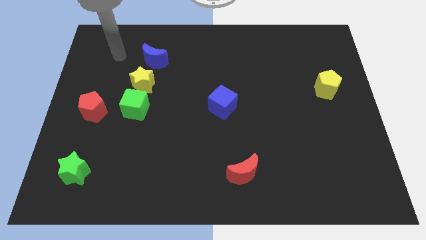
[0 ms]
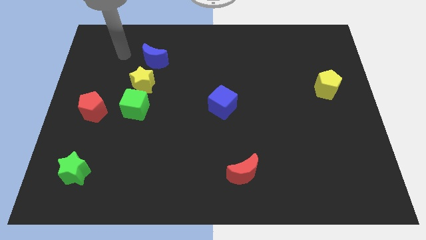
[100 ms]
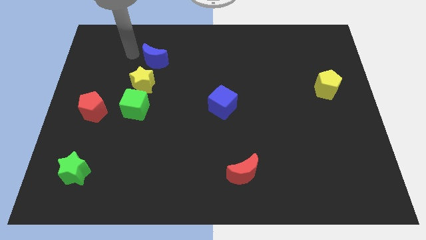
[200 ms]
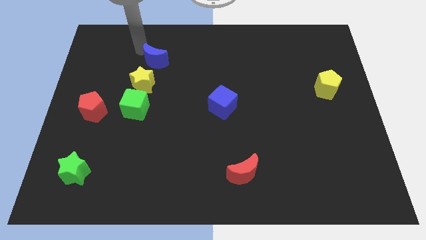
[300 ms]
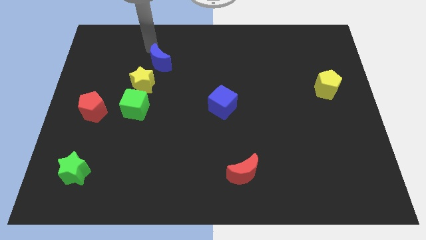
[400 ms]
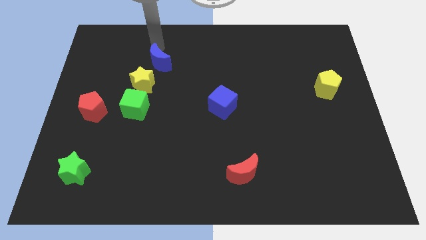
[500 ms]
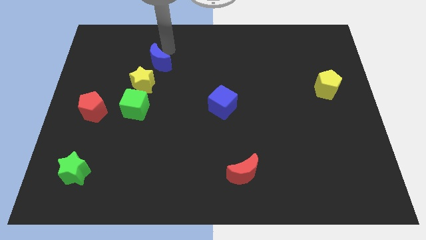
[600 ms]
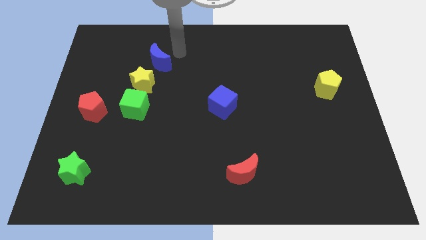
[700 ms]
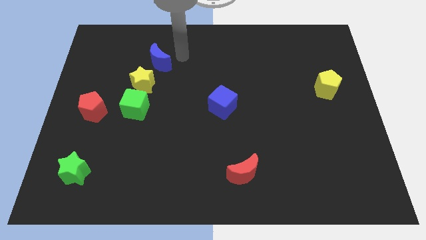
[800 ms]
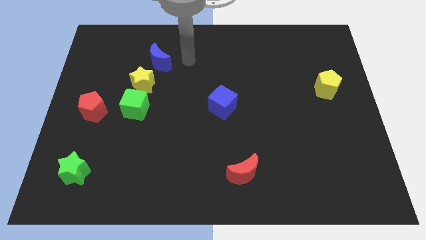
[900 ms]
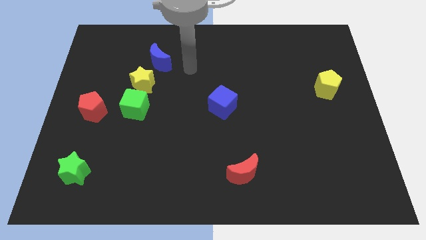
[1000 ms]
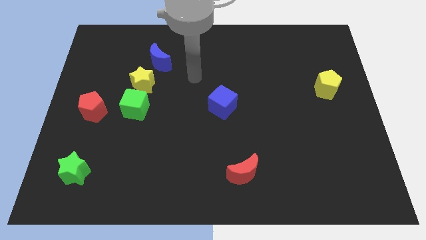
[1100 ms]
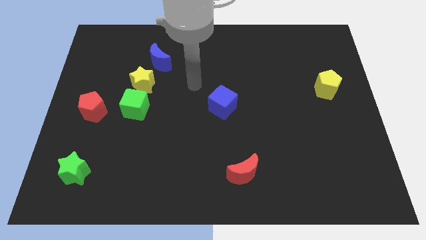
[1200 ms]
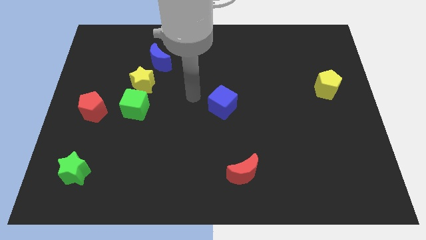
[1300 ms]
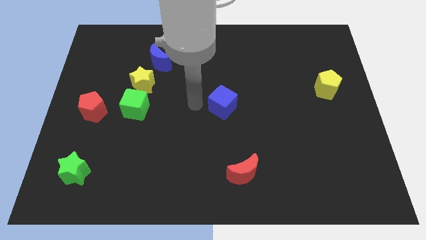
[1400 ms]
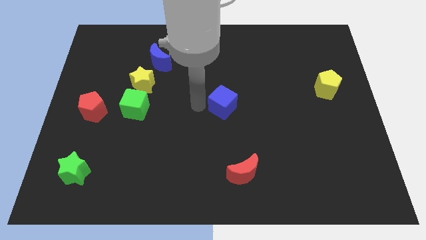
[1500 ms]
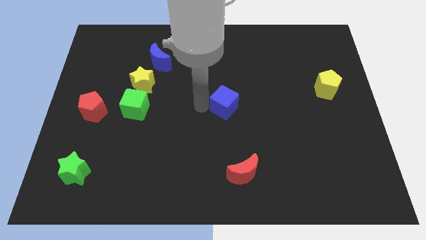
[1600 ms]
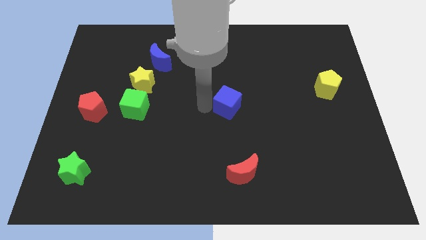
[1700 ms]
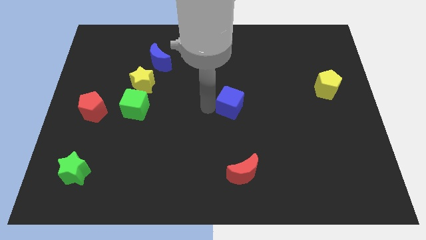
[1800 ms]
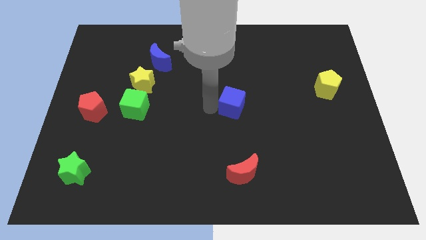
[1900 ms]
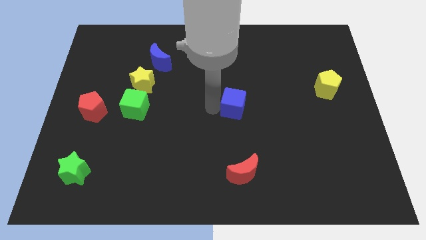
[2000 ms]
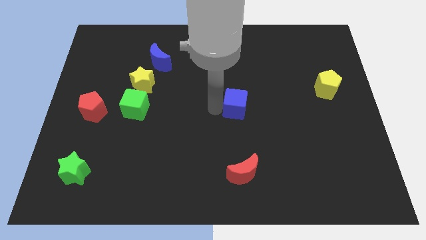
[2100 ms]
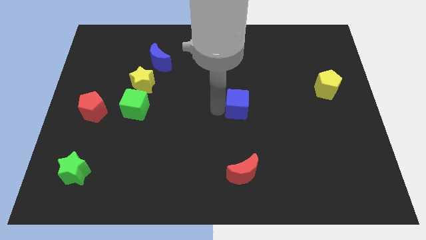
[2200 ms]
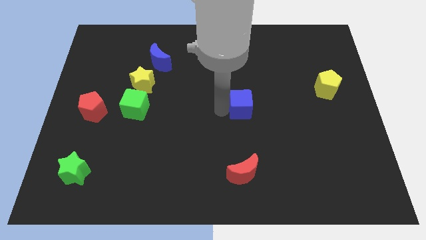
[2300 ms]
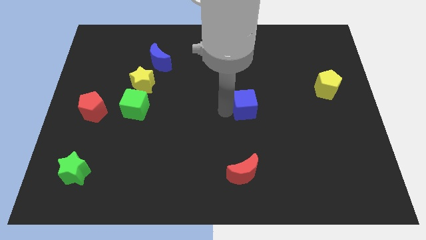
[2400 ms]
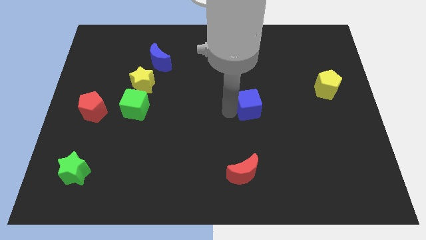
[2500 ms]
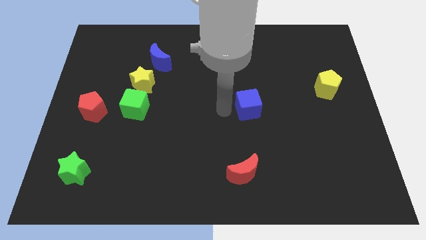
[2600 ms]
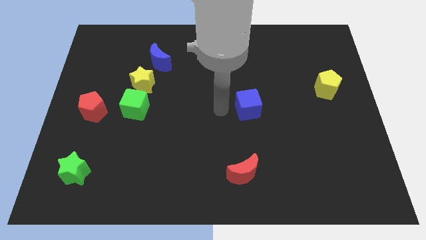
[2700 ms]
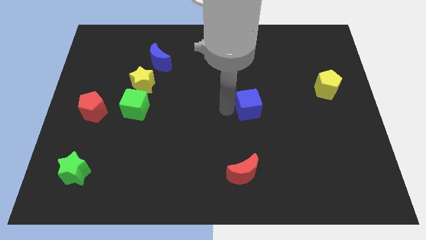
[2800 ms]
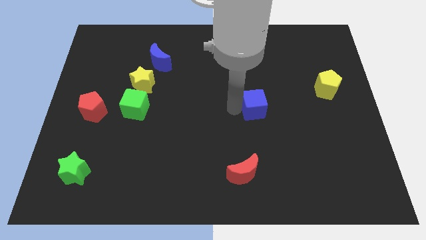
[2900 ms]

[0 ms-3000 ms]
push the blue cube right a little bit

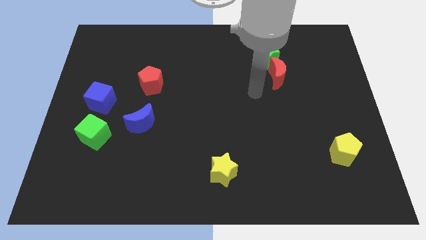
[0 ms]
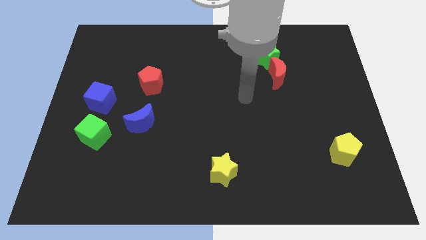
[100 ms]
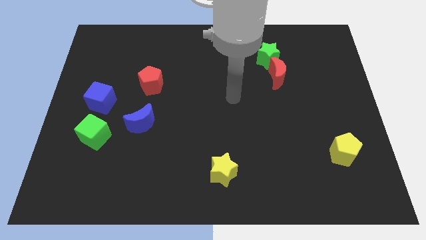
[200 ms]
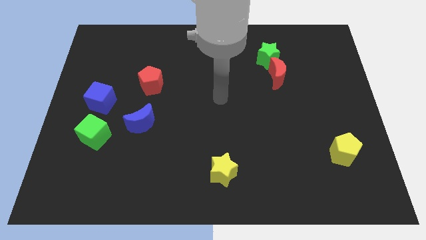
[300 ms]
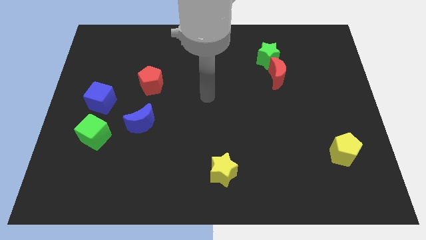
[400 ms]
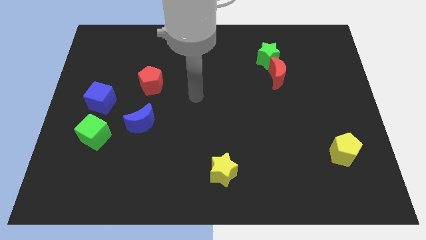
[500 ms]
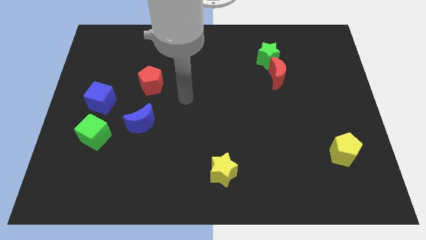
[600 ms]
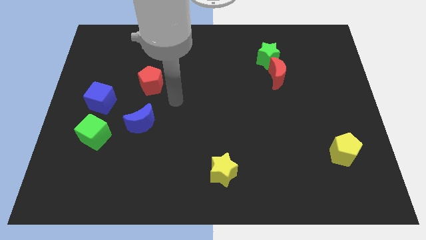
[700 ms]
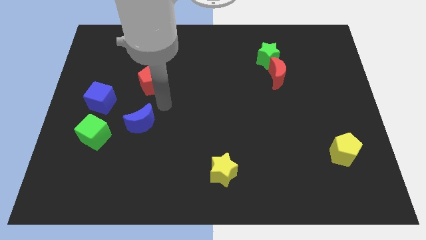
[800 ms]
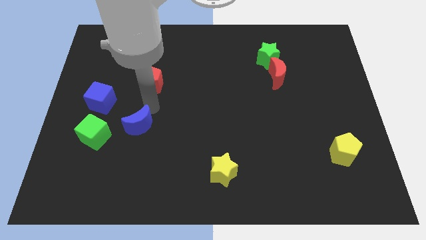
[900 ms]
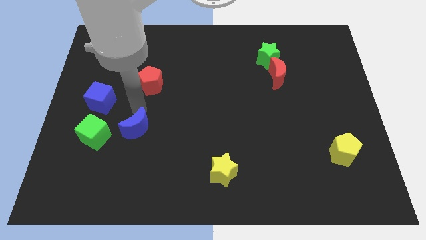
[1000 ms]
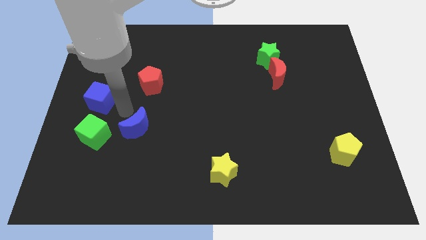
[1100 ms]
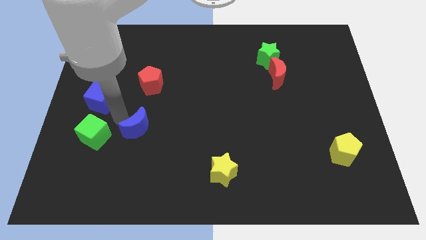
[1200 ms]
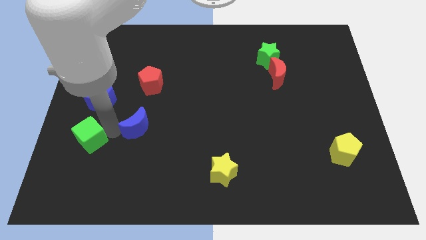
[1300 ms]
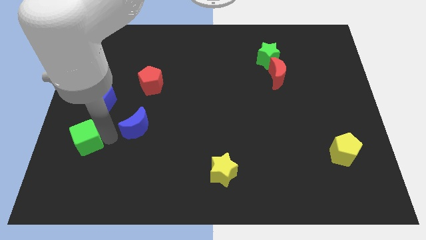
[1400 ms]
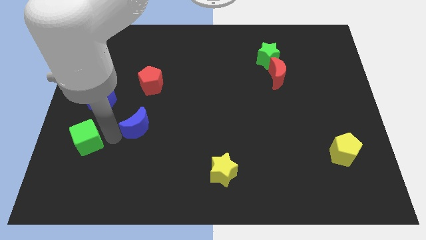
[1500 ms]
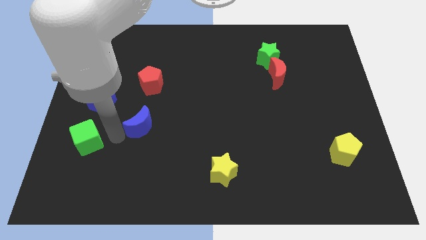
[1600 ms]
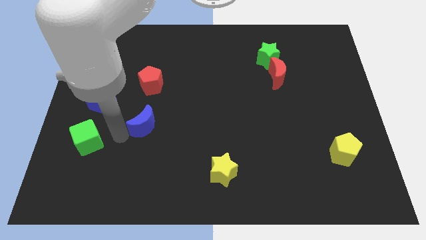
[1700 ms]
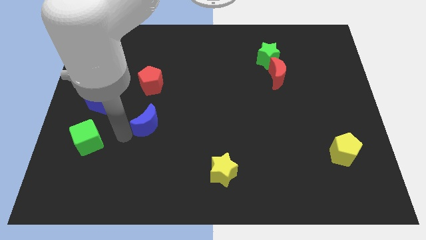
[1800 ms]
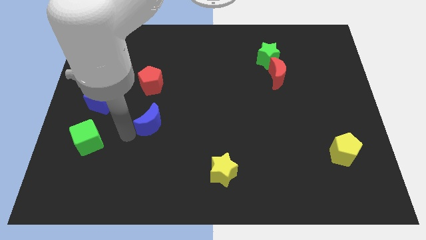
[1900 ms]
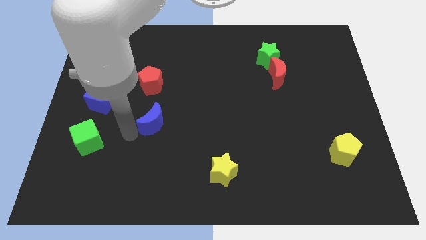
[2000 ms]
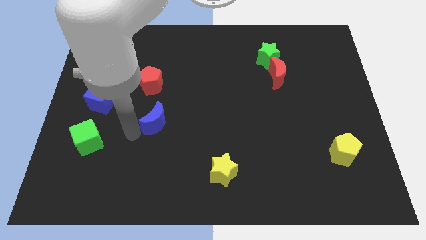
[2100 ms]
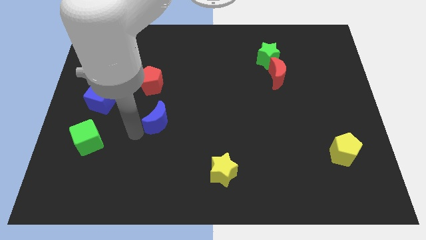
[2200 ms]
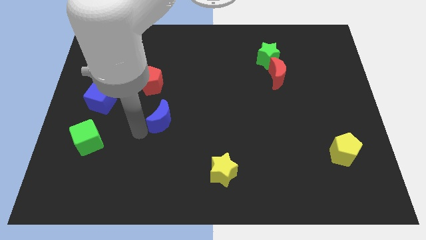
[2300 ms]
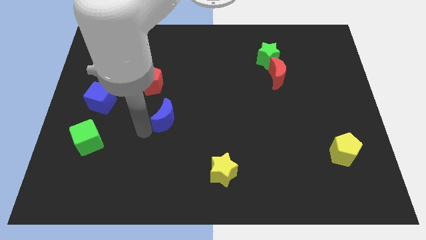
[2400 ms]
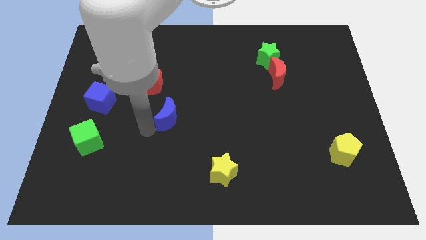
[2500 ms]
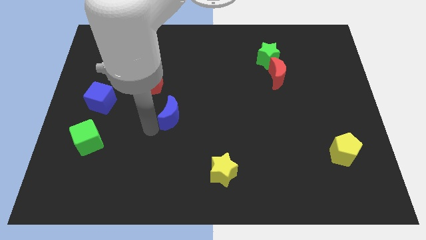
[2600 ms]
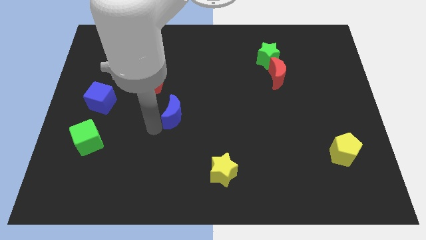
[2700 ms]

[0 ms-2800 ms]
slide the blue moon right a little bit

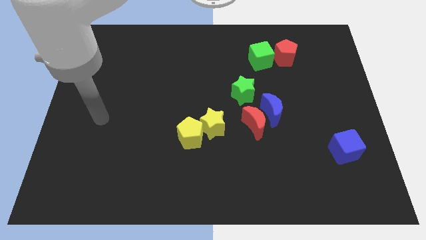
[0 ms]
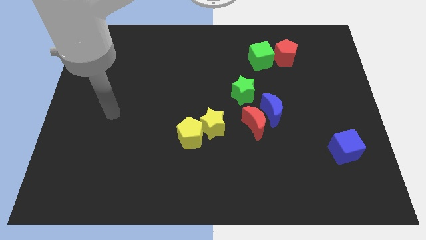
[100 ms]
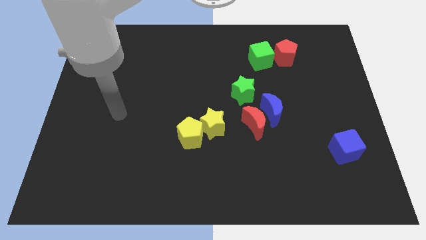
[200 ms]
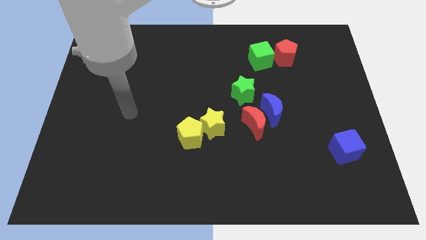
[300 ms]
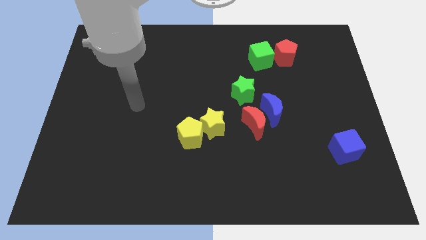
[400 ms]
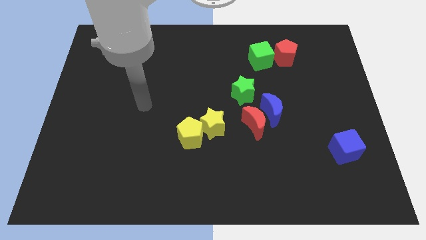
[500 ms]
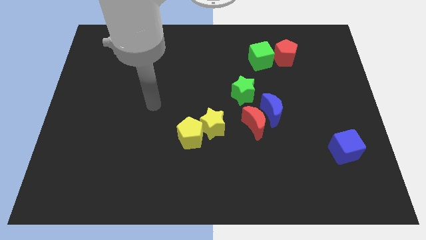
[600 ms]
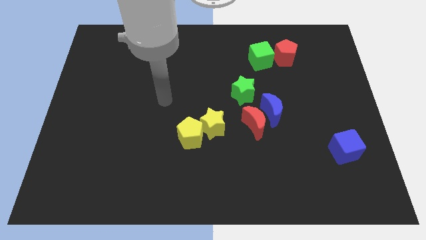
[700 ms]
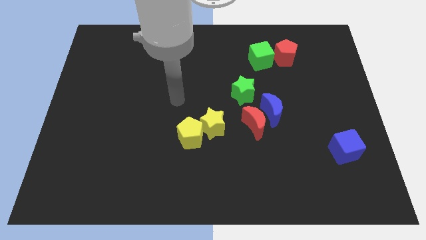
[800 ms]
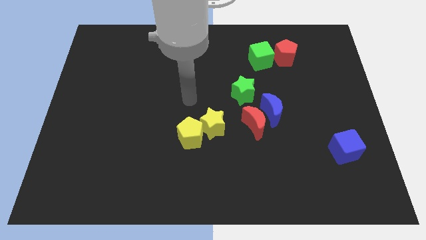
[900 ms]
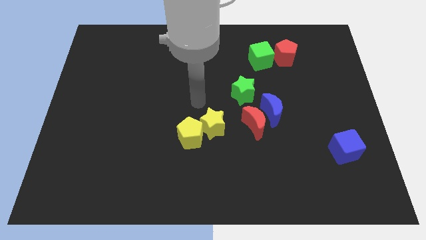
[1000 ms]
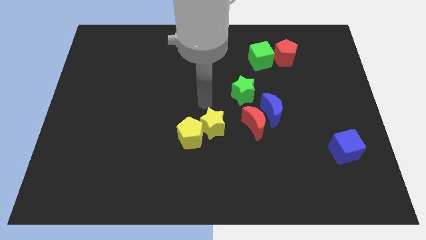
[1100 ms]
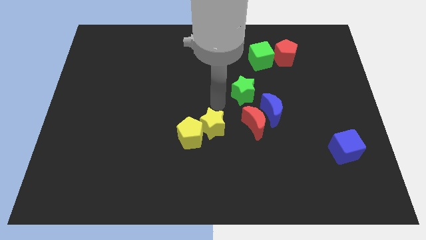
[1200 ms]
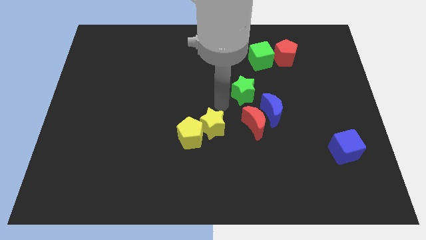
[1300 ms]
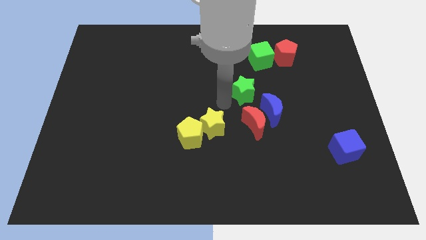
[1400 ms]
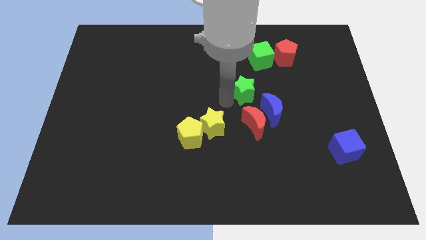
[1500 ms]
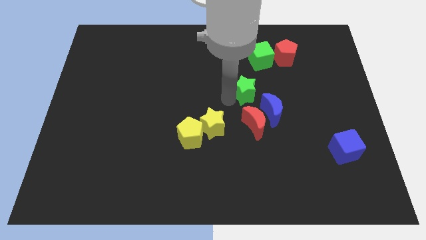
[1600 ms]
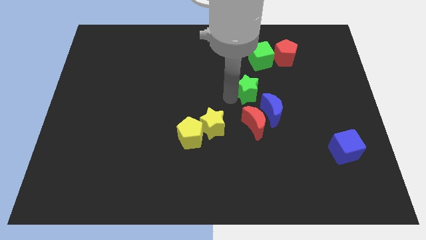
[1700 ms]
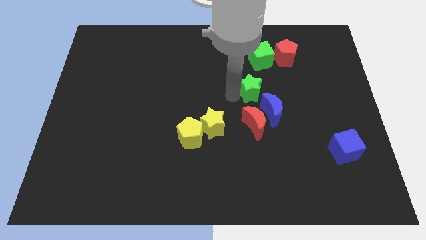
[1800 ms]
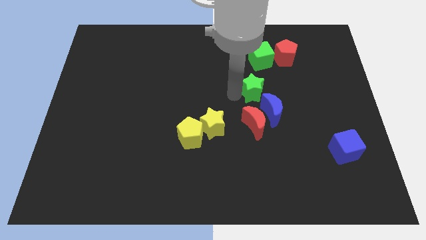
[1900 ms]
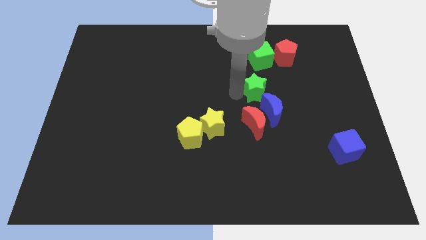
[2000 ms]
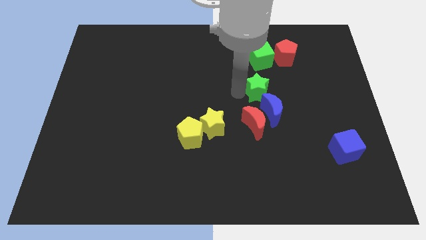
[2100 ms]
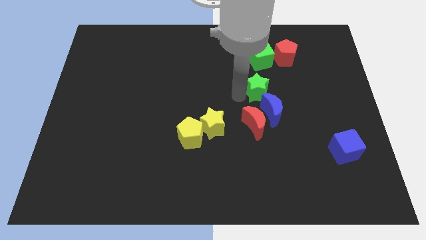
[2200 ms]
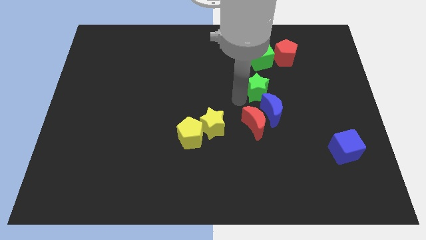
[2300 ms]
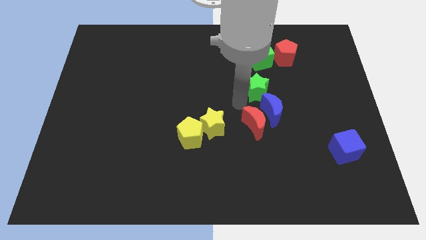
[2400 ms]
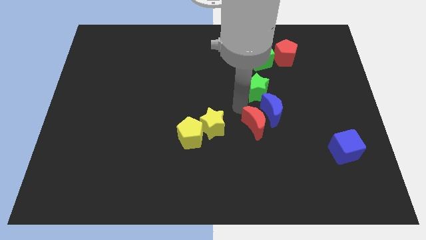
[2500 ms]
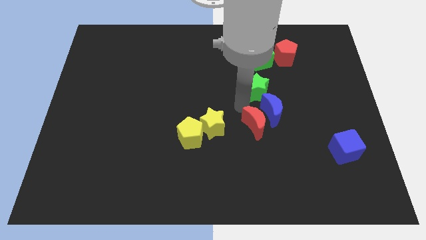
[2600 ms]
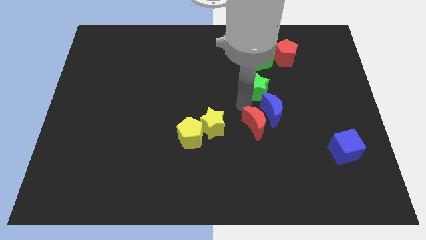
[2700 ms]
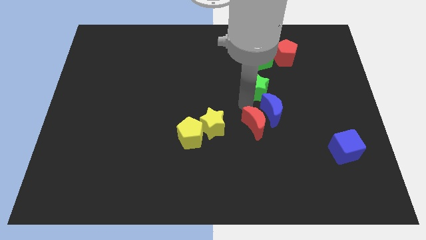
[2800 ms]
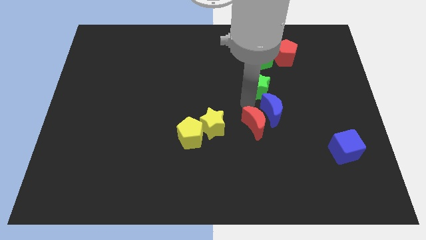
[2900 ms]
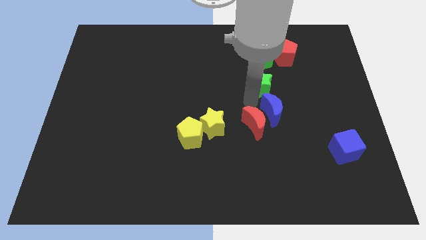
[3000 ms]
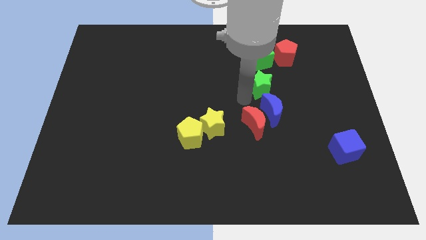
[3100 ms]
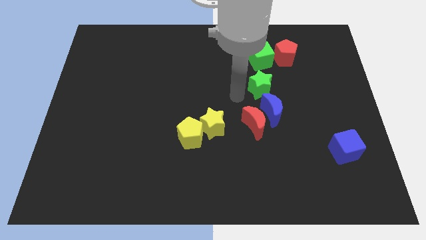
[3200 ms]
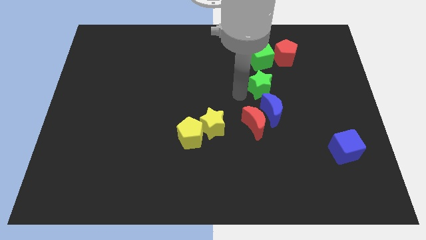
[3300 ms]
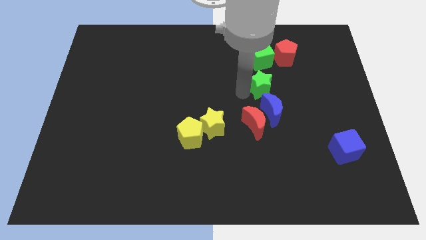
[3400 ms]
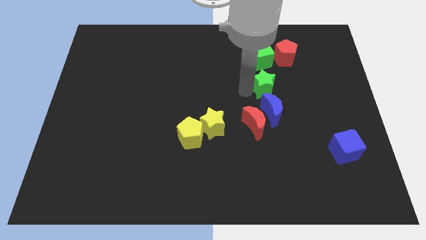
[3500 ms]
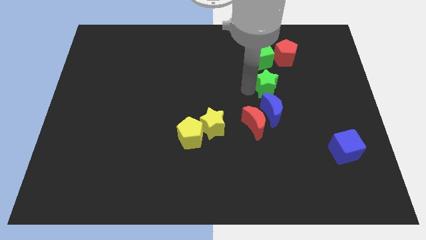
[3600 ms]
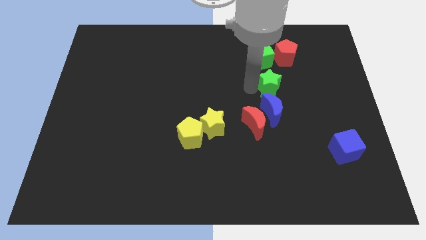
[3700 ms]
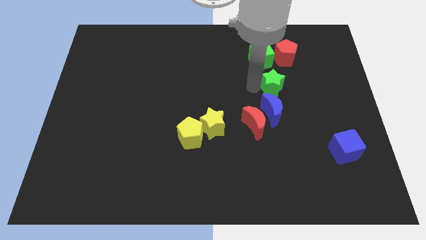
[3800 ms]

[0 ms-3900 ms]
push the green star slightly right
